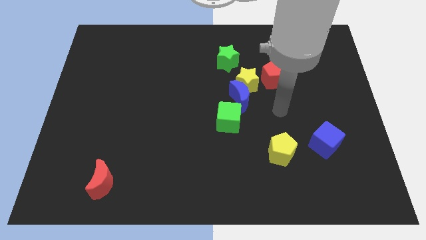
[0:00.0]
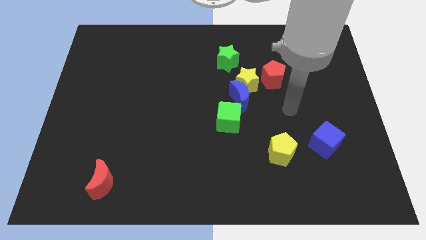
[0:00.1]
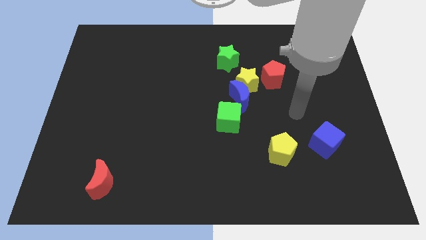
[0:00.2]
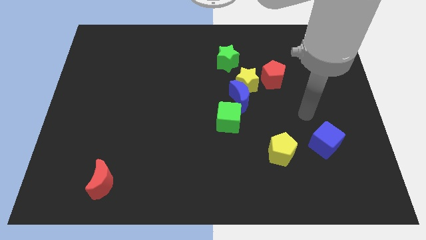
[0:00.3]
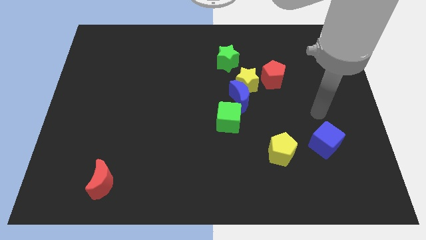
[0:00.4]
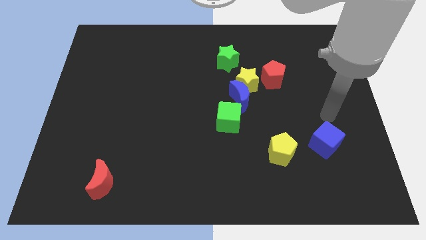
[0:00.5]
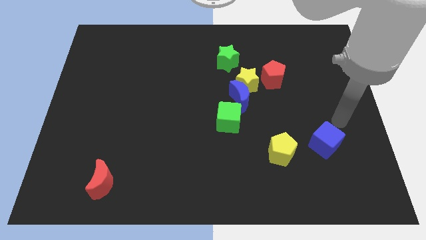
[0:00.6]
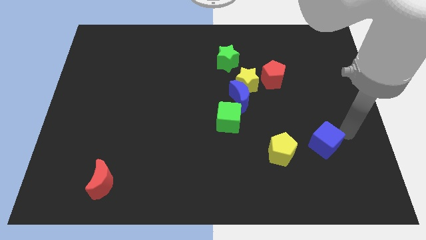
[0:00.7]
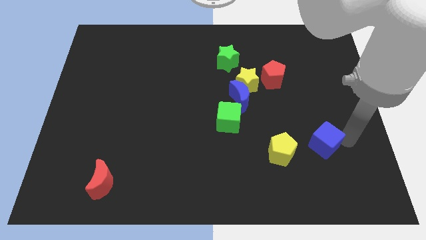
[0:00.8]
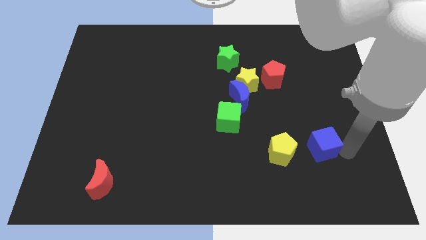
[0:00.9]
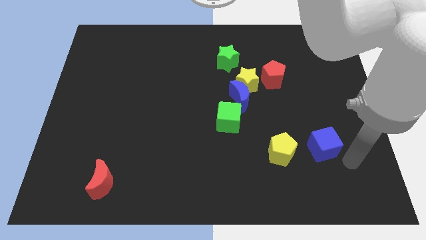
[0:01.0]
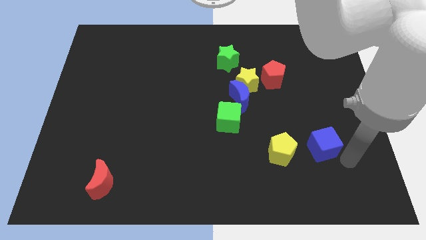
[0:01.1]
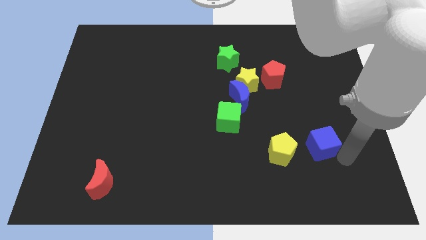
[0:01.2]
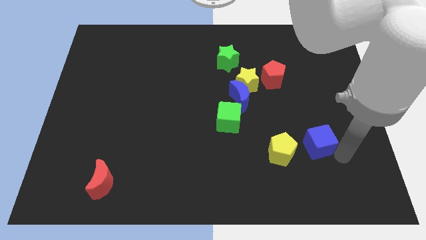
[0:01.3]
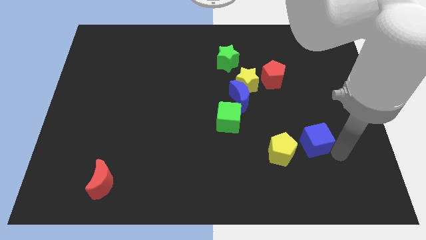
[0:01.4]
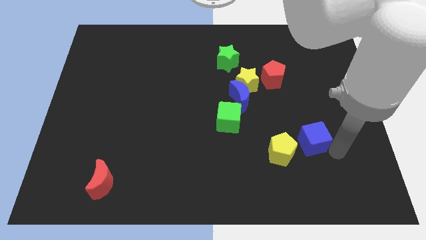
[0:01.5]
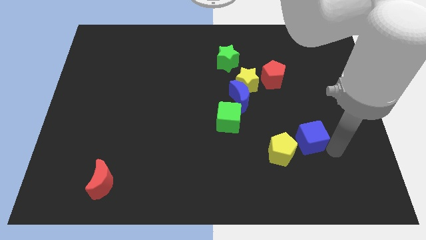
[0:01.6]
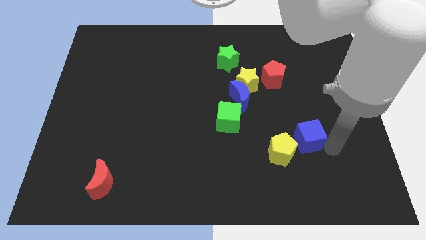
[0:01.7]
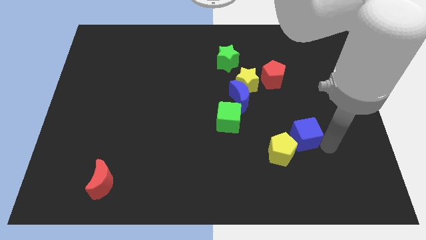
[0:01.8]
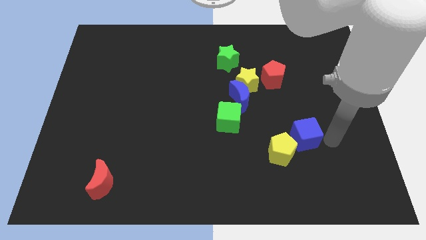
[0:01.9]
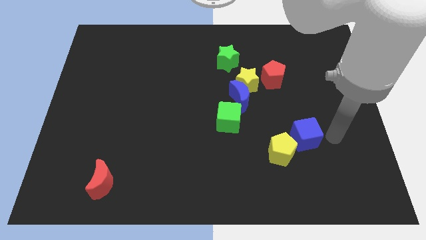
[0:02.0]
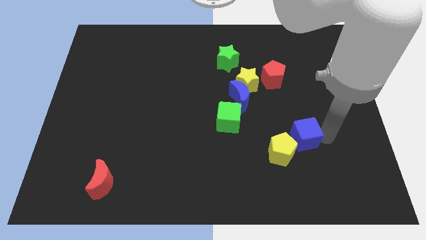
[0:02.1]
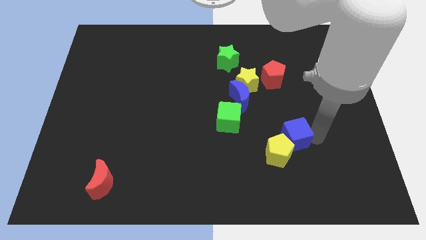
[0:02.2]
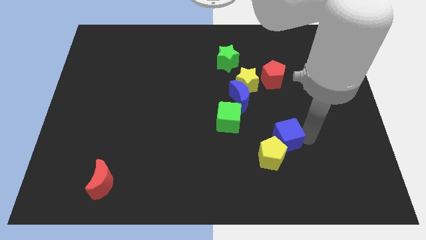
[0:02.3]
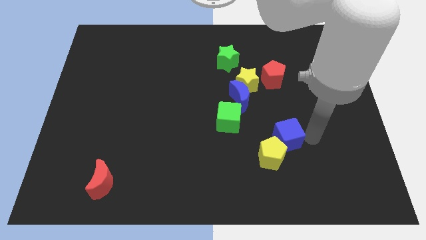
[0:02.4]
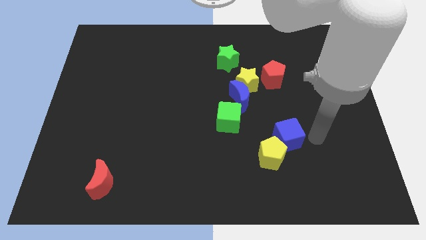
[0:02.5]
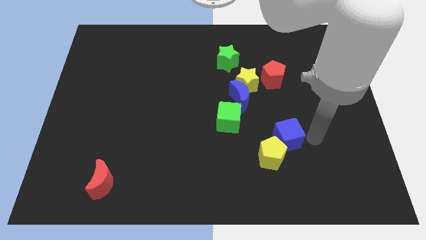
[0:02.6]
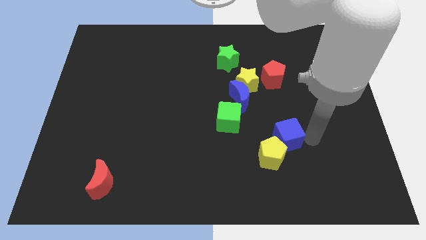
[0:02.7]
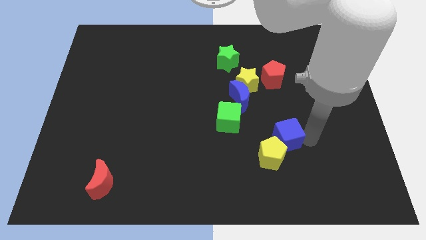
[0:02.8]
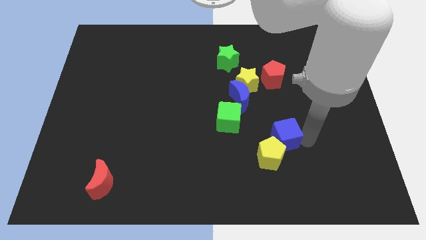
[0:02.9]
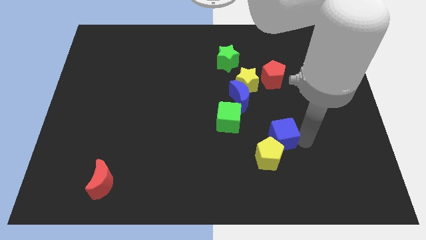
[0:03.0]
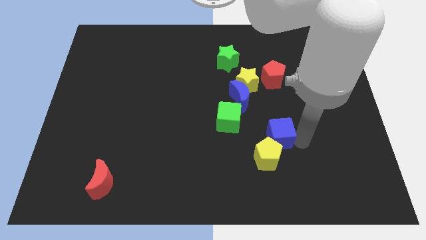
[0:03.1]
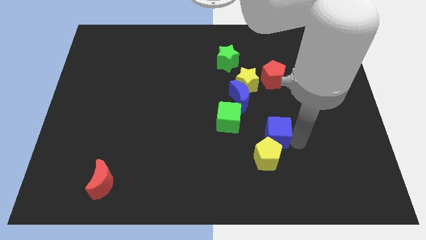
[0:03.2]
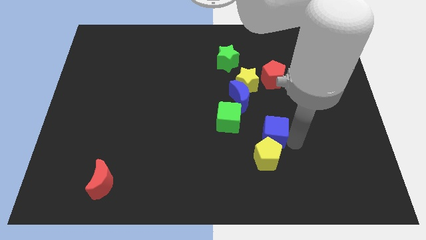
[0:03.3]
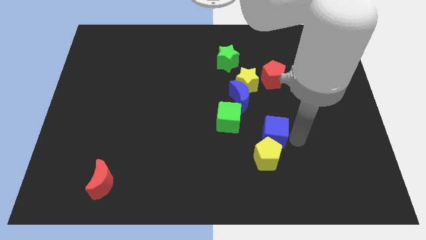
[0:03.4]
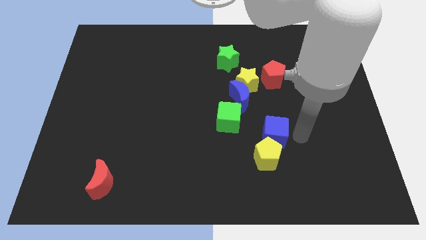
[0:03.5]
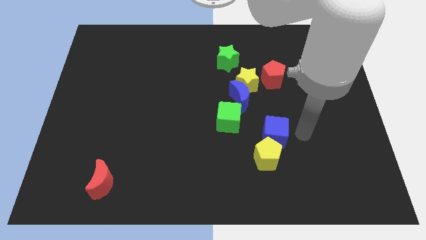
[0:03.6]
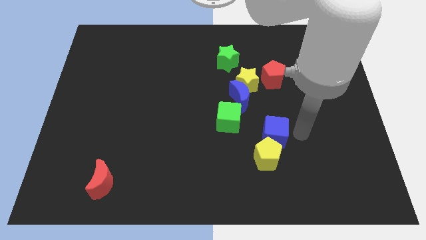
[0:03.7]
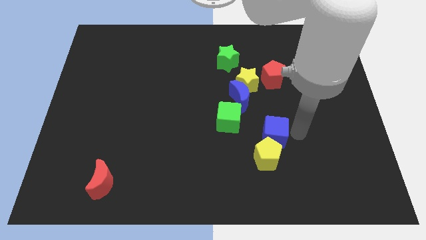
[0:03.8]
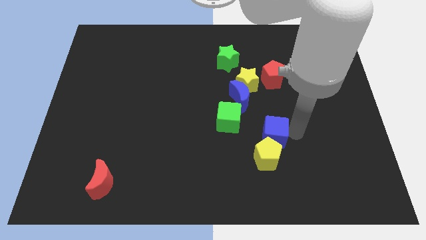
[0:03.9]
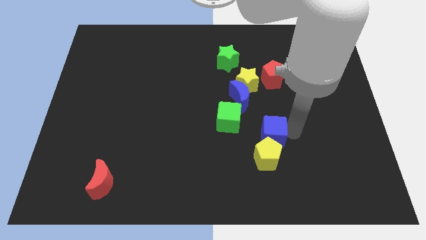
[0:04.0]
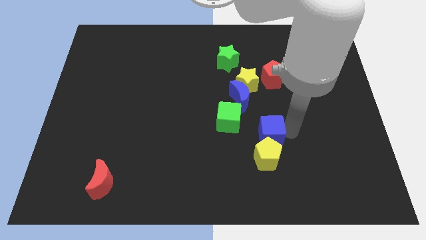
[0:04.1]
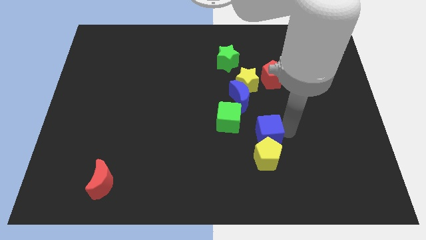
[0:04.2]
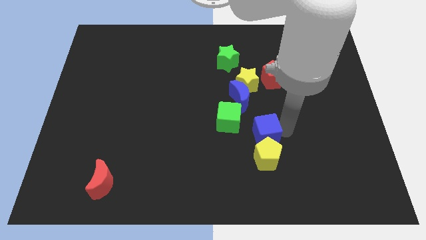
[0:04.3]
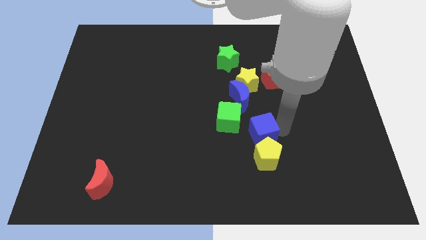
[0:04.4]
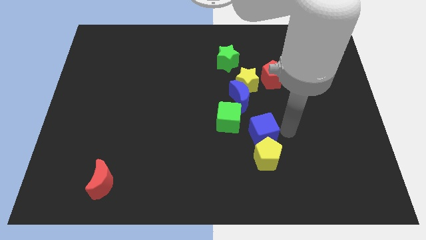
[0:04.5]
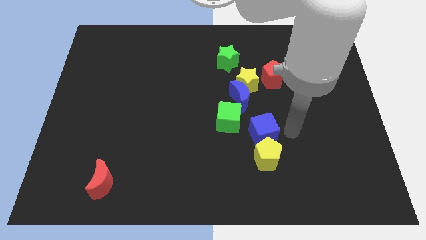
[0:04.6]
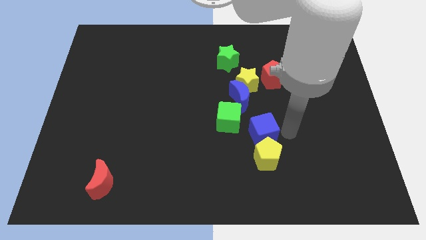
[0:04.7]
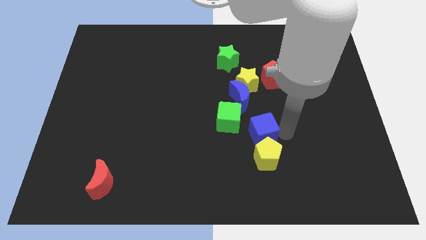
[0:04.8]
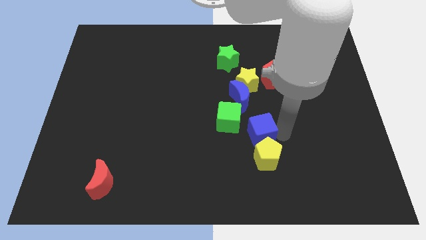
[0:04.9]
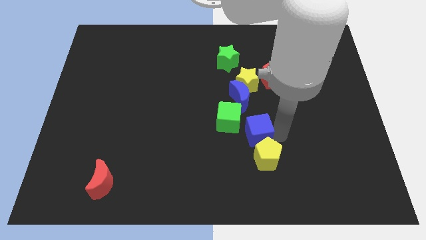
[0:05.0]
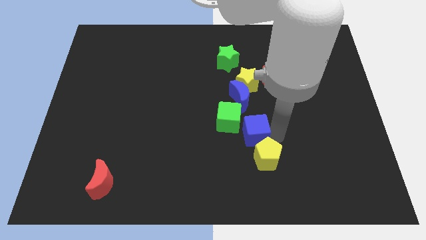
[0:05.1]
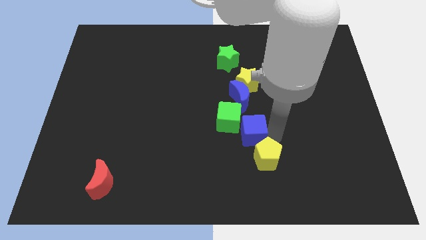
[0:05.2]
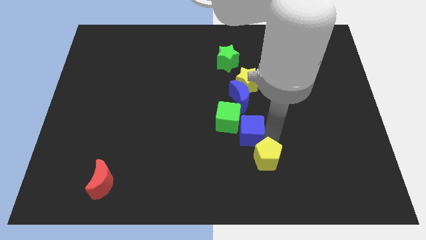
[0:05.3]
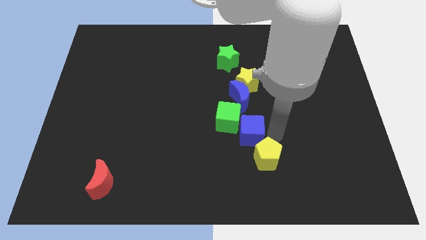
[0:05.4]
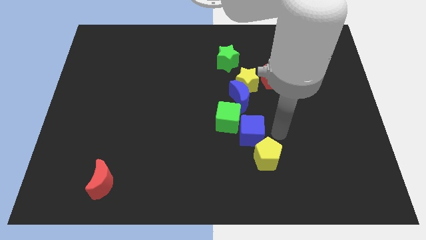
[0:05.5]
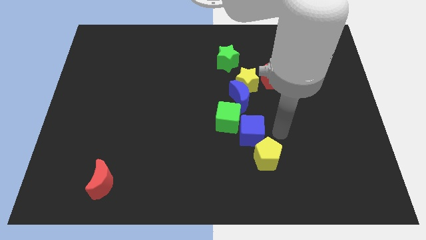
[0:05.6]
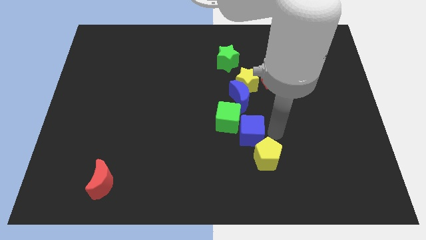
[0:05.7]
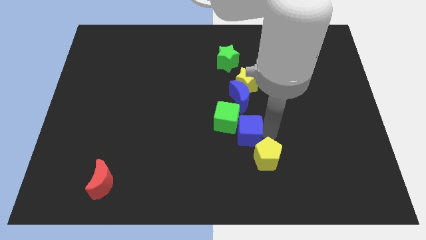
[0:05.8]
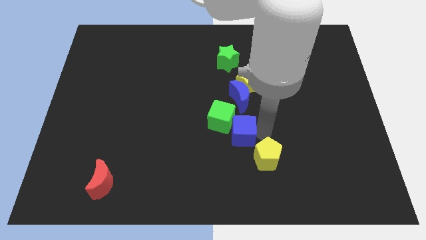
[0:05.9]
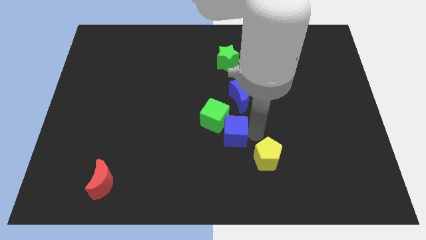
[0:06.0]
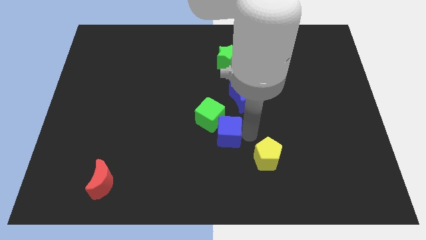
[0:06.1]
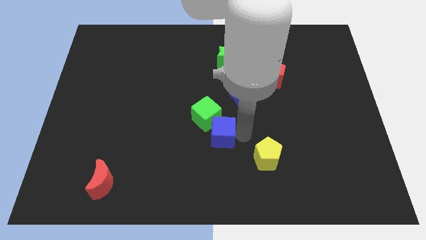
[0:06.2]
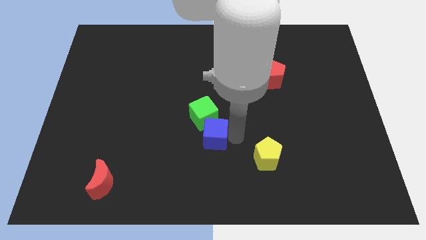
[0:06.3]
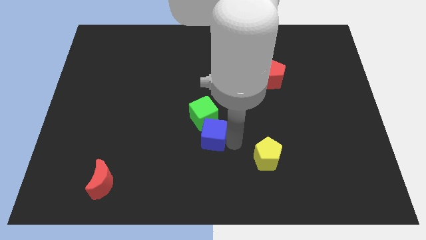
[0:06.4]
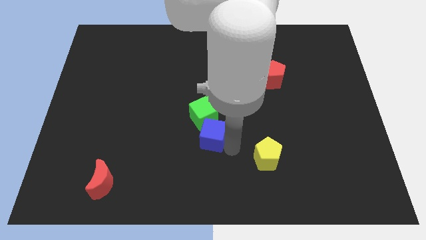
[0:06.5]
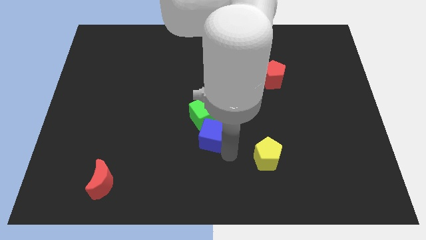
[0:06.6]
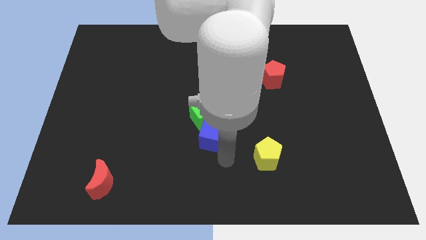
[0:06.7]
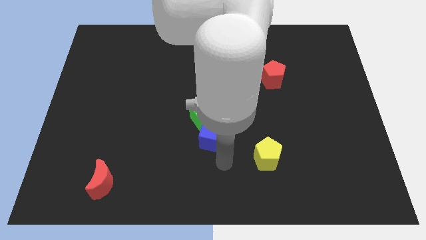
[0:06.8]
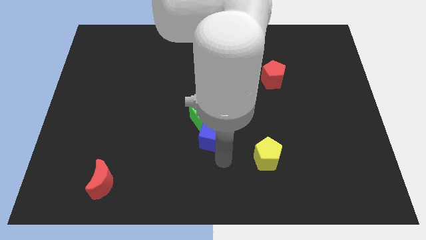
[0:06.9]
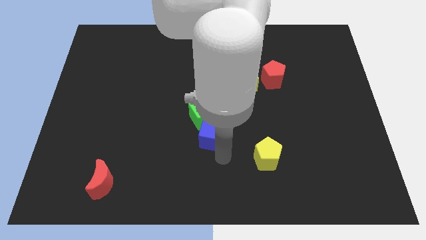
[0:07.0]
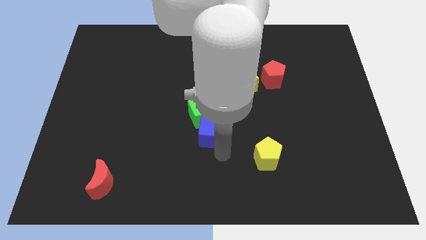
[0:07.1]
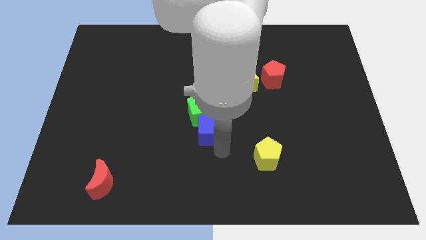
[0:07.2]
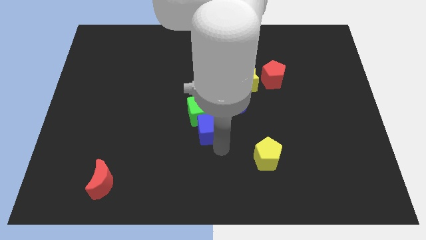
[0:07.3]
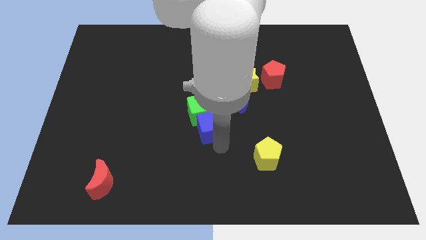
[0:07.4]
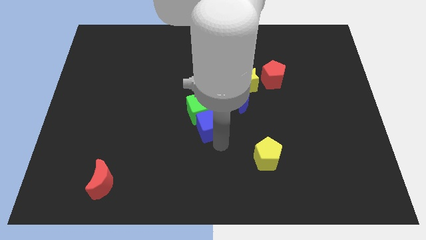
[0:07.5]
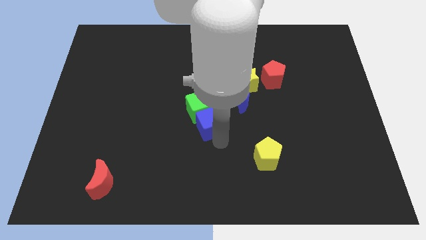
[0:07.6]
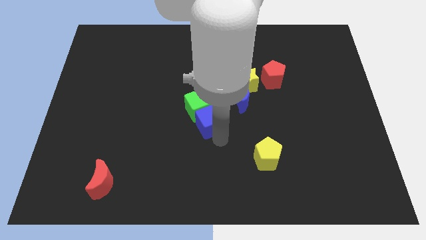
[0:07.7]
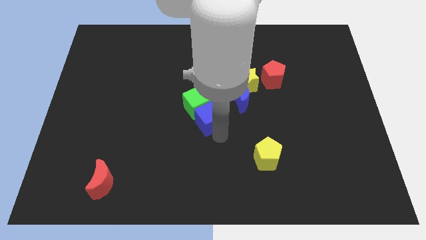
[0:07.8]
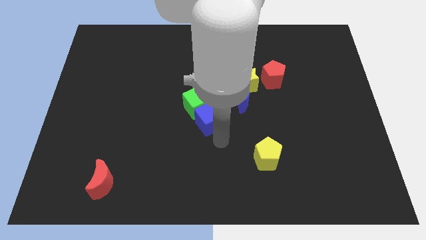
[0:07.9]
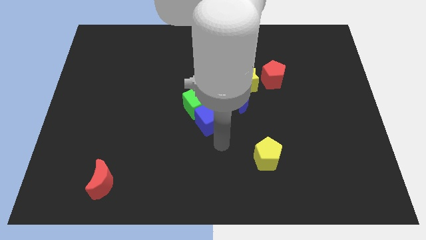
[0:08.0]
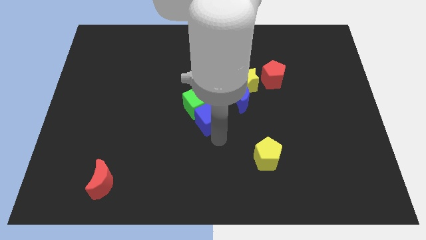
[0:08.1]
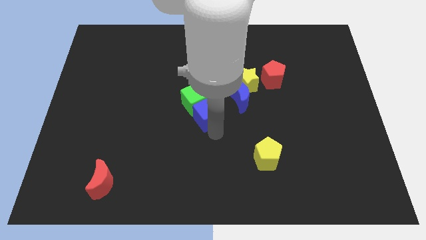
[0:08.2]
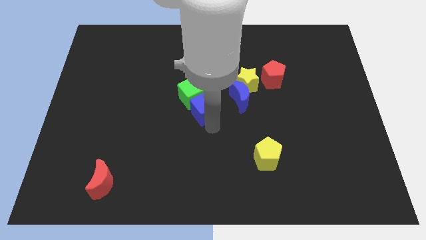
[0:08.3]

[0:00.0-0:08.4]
slide the blue cube to the left side of the blue moon
